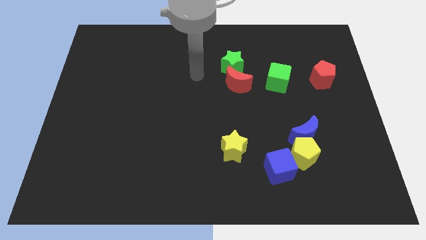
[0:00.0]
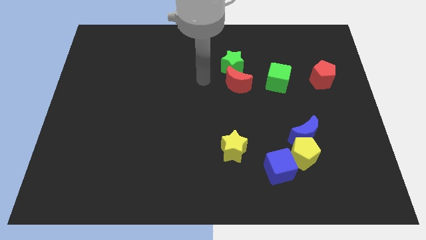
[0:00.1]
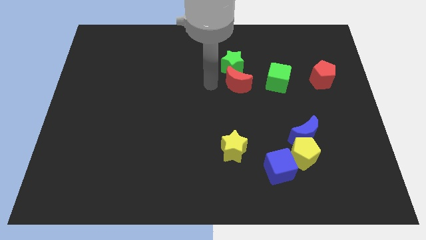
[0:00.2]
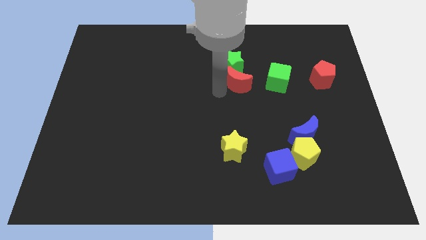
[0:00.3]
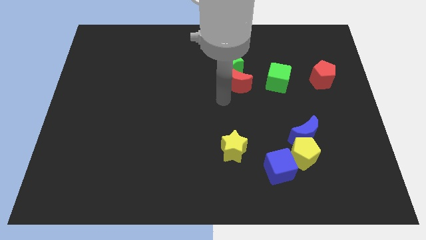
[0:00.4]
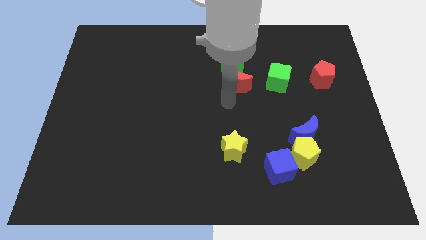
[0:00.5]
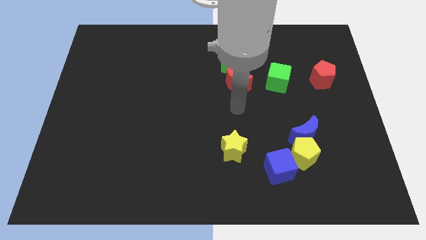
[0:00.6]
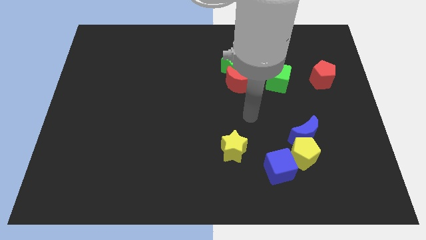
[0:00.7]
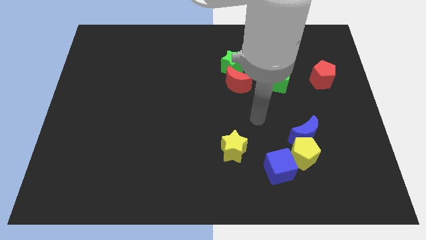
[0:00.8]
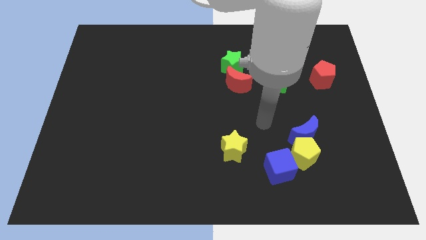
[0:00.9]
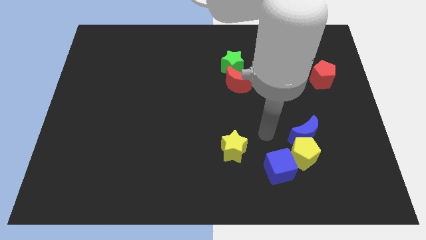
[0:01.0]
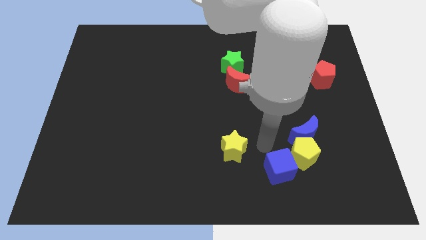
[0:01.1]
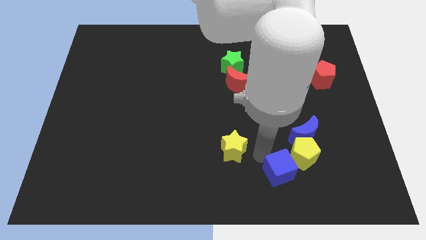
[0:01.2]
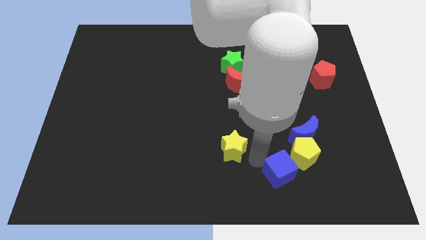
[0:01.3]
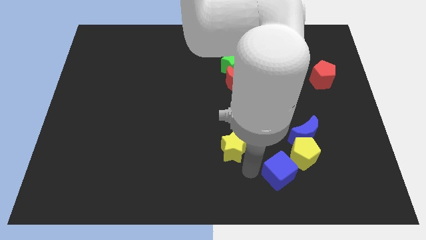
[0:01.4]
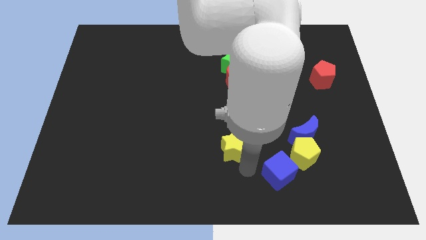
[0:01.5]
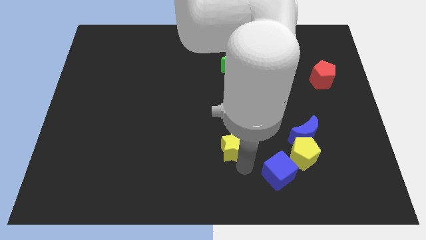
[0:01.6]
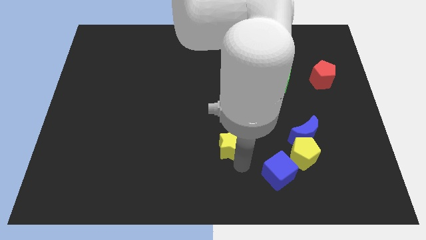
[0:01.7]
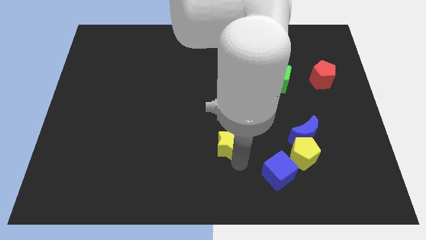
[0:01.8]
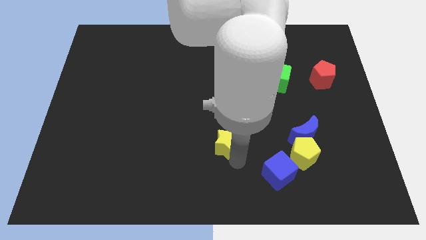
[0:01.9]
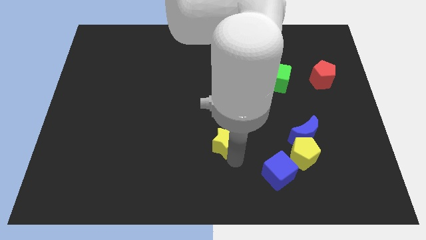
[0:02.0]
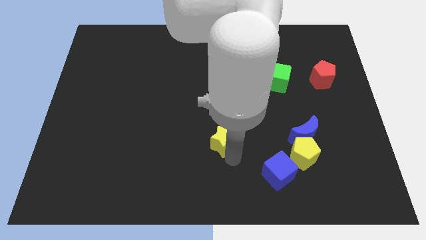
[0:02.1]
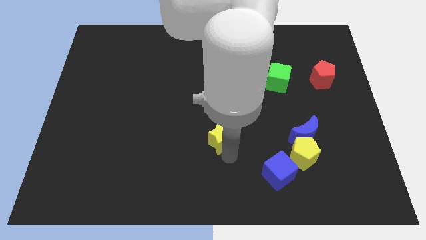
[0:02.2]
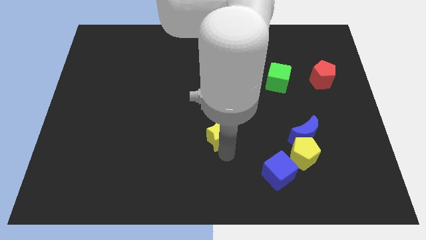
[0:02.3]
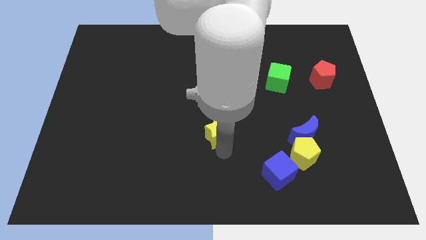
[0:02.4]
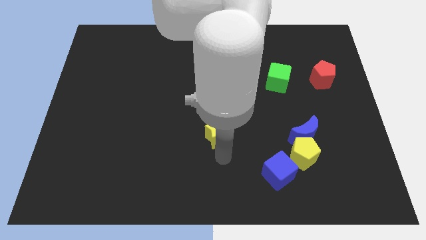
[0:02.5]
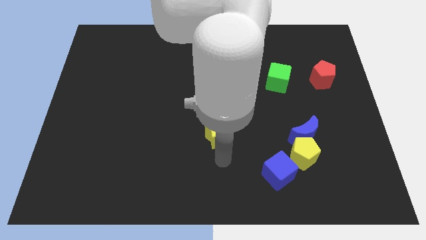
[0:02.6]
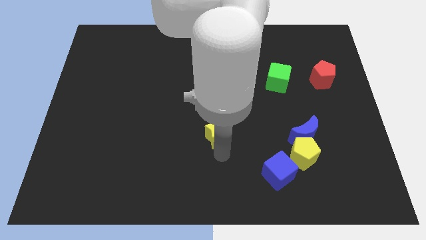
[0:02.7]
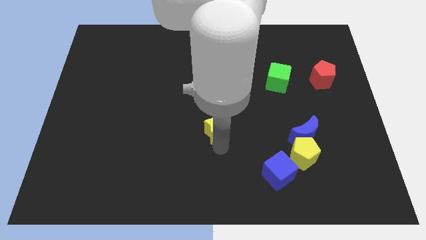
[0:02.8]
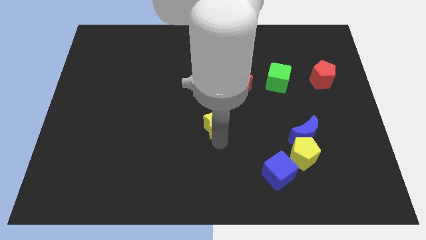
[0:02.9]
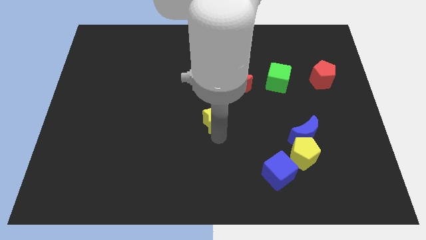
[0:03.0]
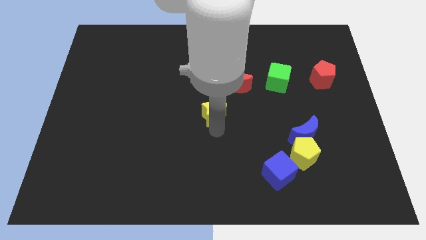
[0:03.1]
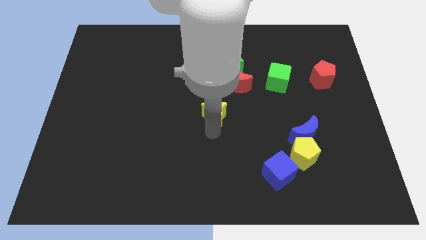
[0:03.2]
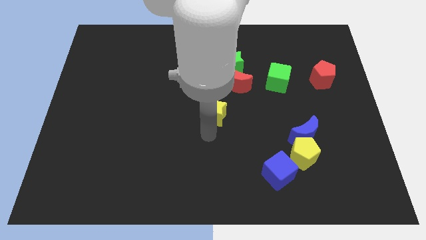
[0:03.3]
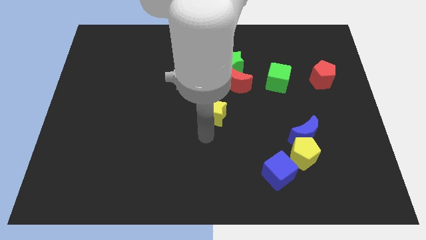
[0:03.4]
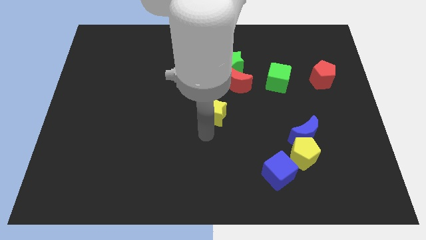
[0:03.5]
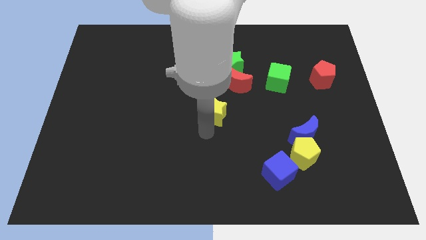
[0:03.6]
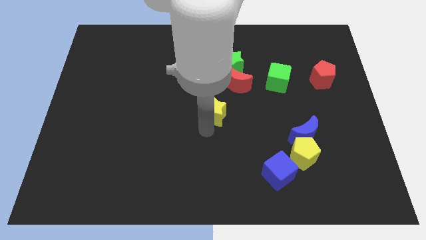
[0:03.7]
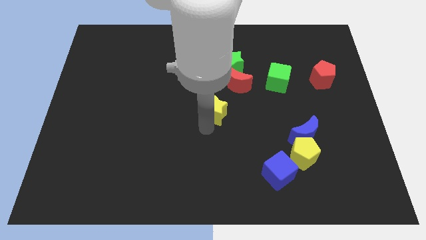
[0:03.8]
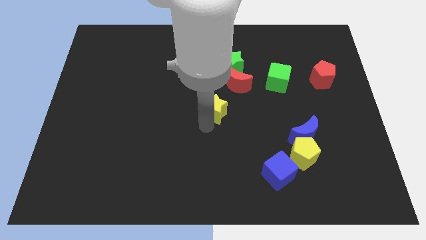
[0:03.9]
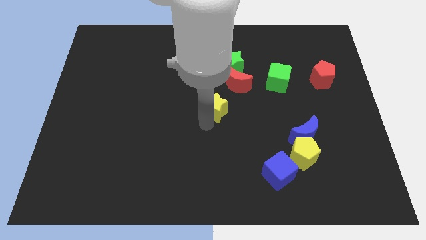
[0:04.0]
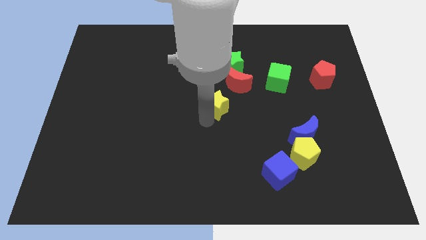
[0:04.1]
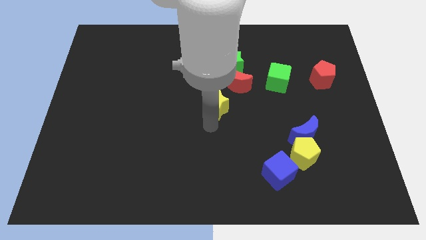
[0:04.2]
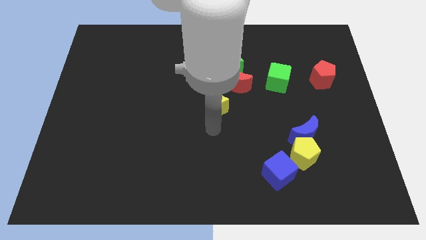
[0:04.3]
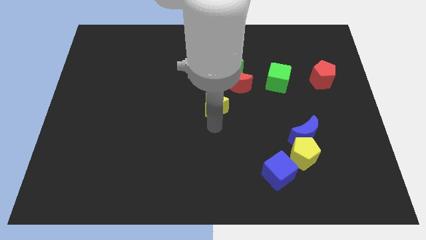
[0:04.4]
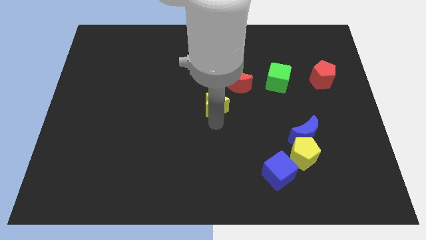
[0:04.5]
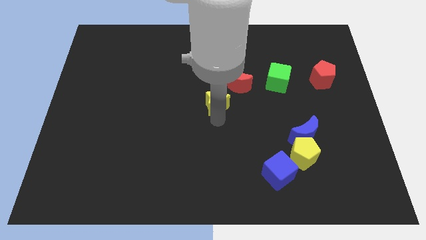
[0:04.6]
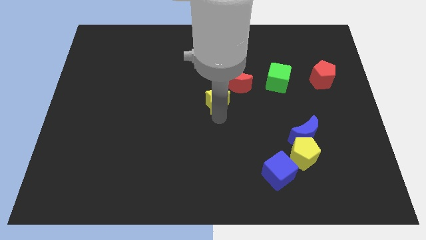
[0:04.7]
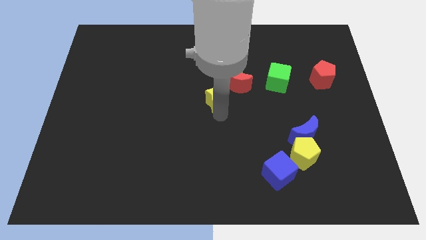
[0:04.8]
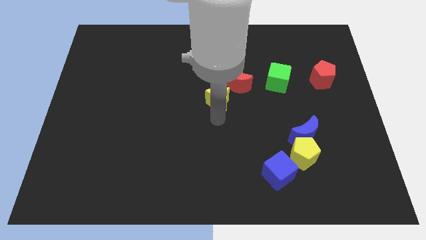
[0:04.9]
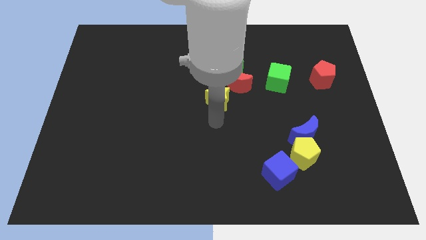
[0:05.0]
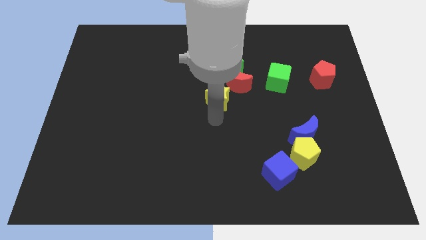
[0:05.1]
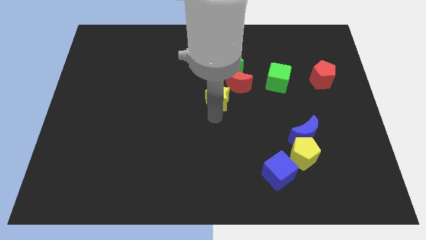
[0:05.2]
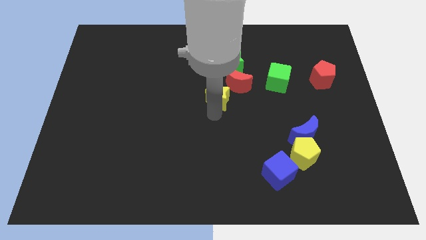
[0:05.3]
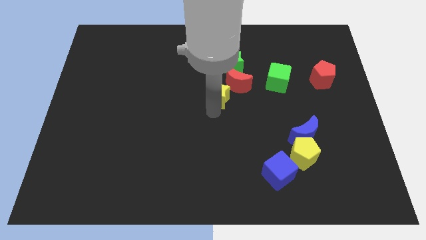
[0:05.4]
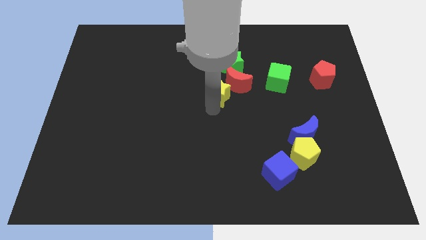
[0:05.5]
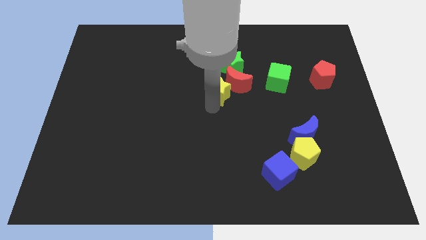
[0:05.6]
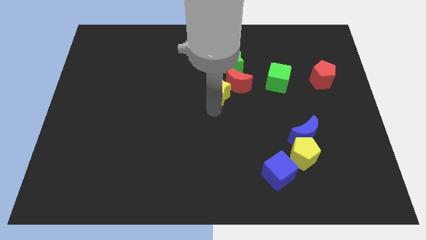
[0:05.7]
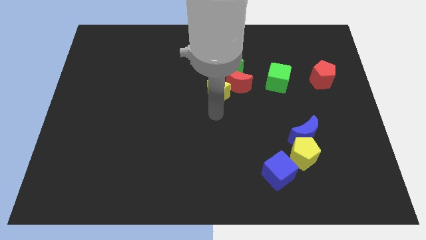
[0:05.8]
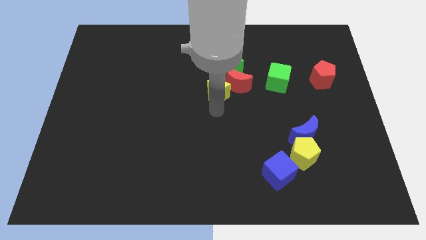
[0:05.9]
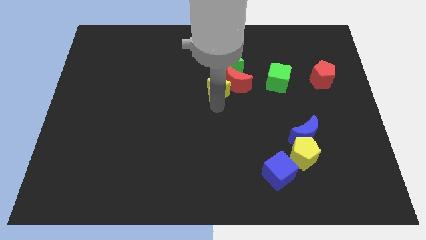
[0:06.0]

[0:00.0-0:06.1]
push the yellow star left of the green cube

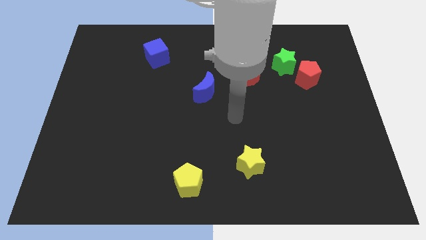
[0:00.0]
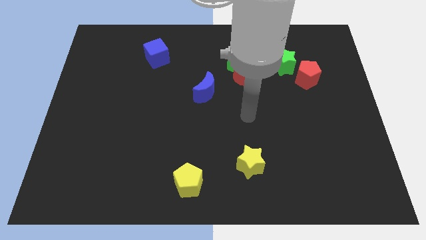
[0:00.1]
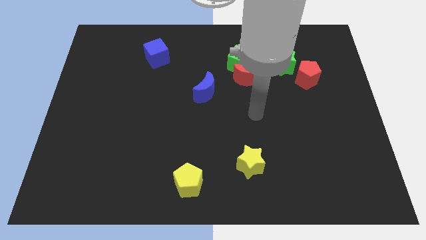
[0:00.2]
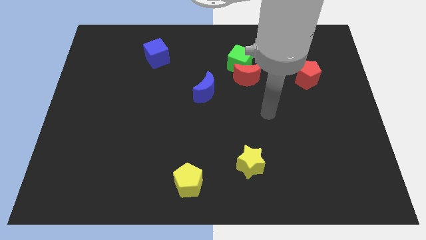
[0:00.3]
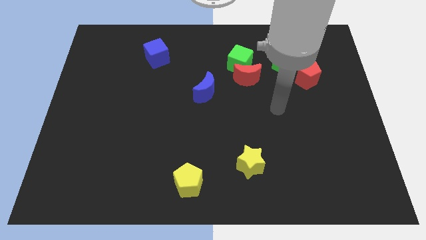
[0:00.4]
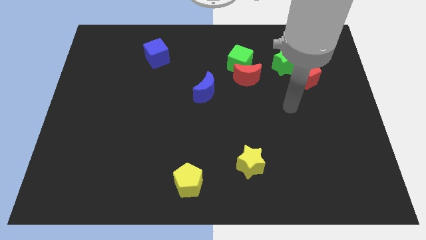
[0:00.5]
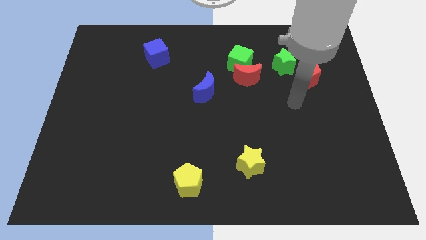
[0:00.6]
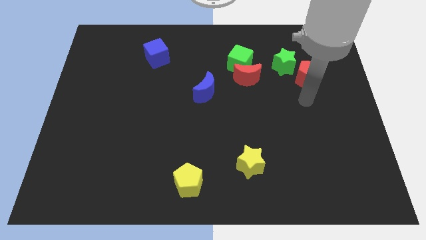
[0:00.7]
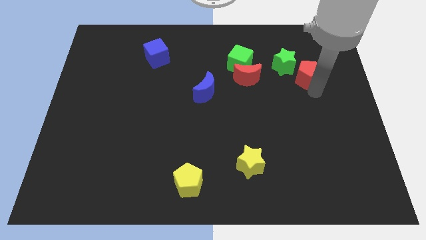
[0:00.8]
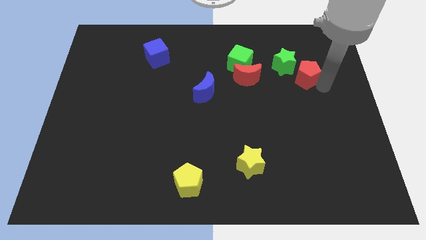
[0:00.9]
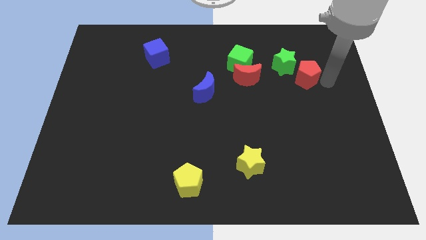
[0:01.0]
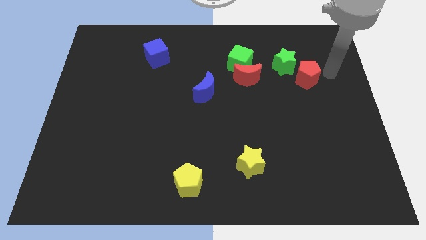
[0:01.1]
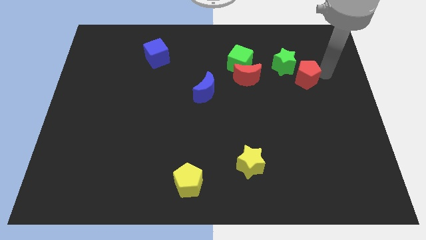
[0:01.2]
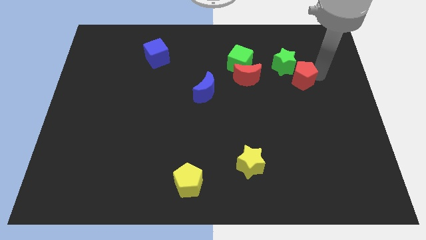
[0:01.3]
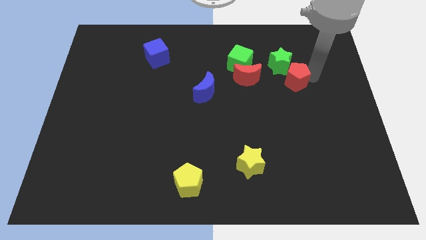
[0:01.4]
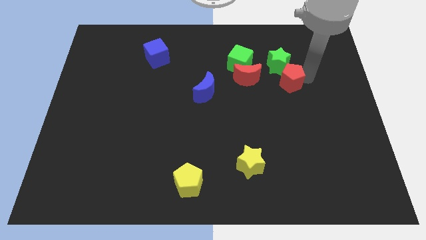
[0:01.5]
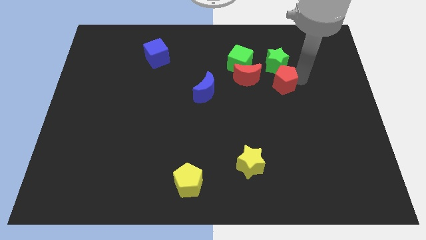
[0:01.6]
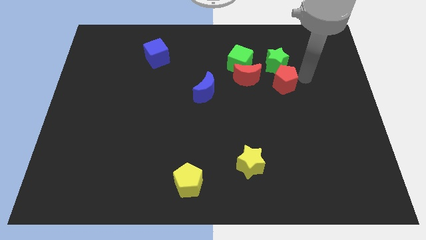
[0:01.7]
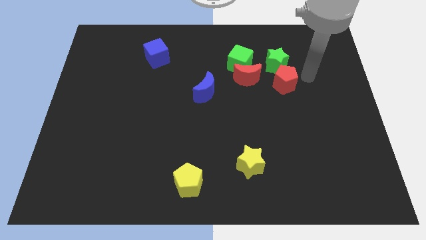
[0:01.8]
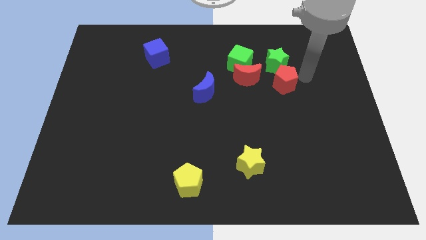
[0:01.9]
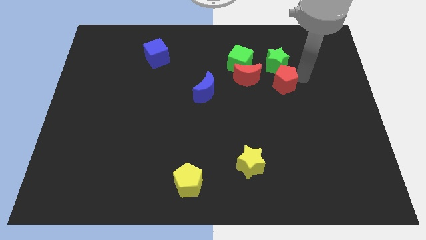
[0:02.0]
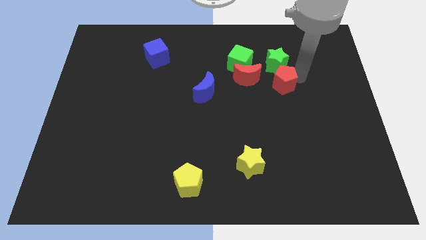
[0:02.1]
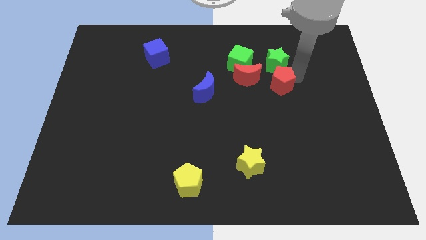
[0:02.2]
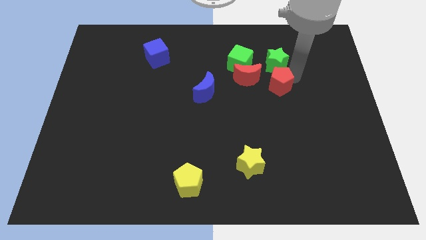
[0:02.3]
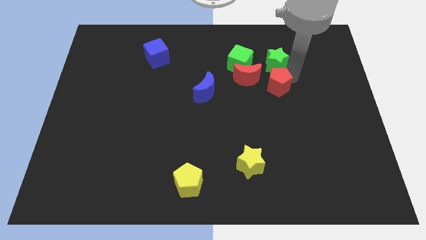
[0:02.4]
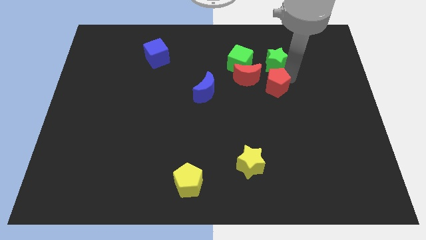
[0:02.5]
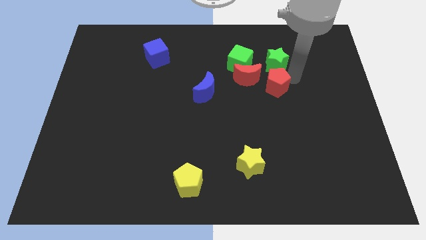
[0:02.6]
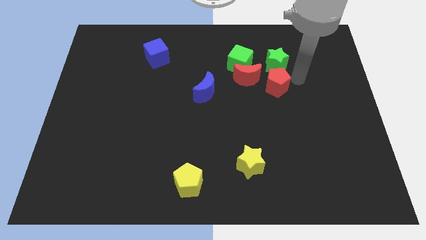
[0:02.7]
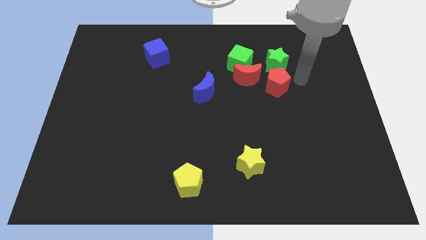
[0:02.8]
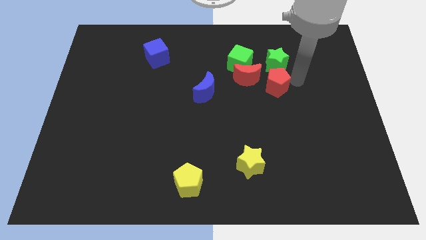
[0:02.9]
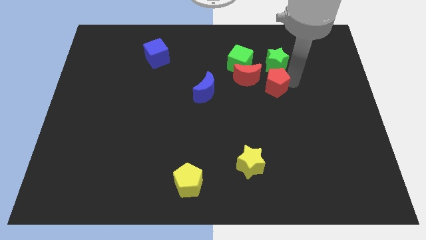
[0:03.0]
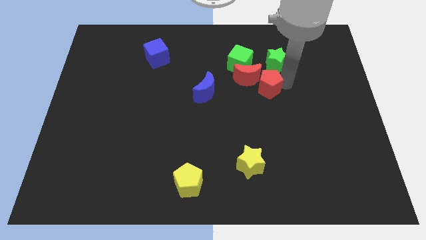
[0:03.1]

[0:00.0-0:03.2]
put the red pentagon right of the blue moon
